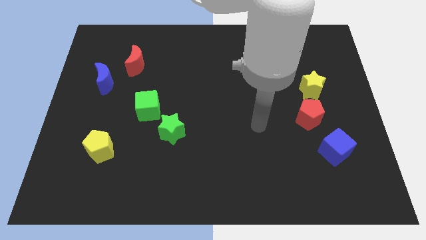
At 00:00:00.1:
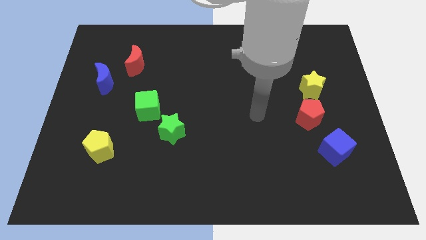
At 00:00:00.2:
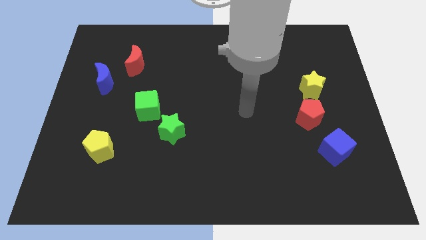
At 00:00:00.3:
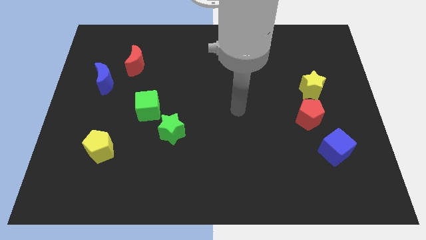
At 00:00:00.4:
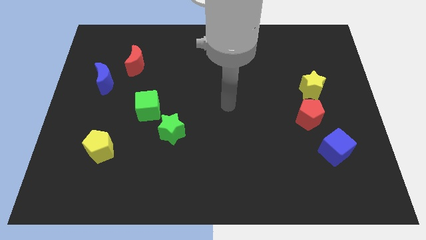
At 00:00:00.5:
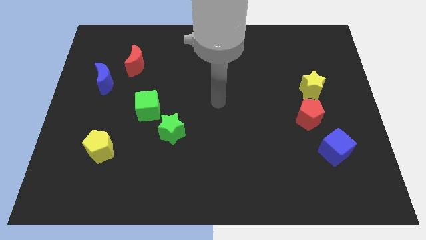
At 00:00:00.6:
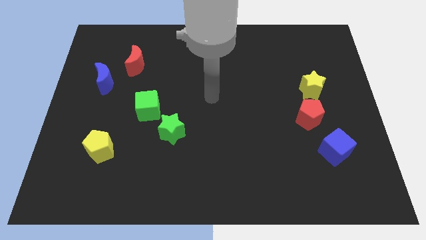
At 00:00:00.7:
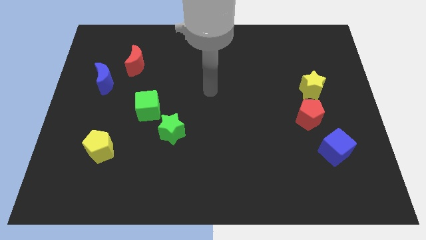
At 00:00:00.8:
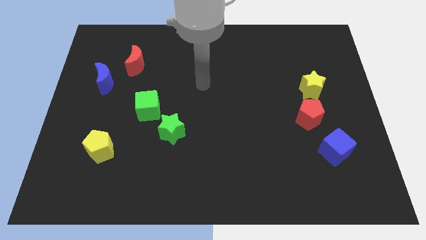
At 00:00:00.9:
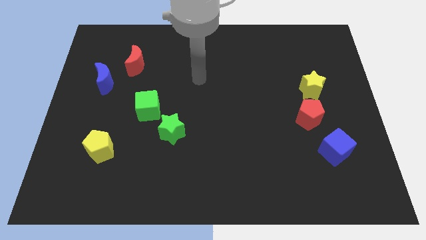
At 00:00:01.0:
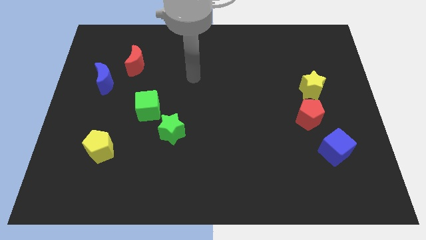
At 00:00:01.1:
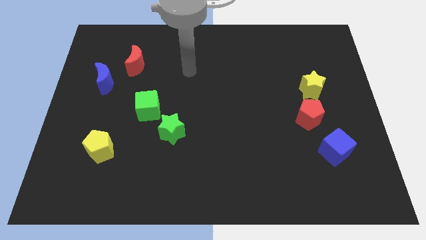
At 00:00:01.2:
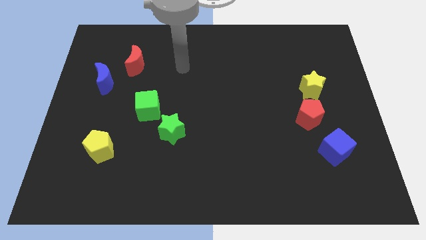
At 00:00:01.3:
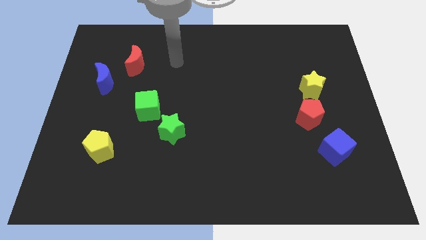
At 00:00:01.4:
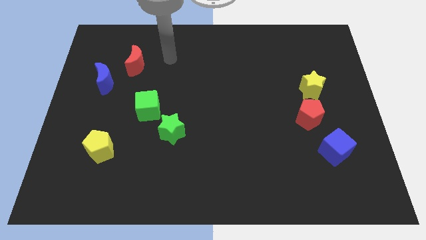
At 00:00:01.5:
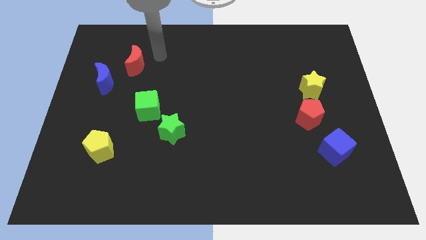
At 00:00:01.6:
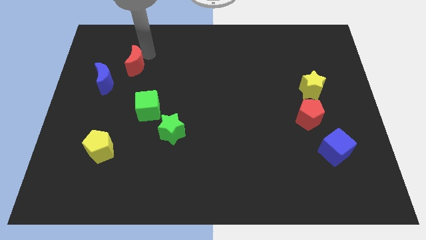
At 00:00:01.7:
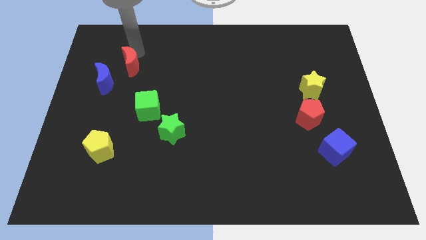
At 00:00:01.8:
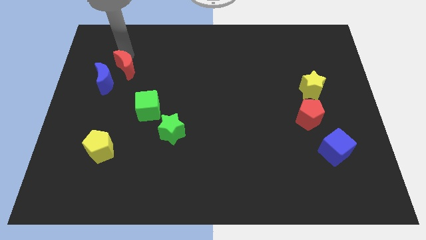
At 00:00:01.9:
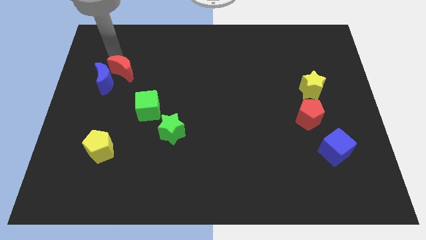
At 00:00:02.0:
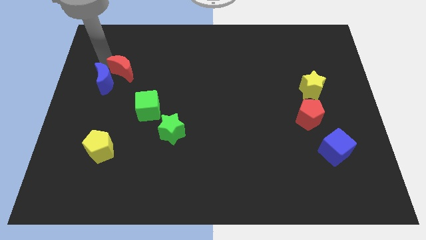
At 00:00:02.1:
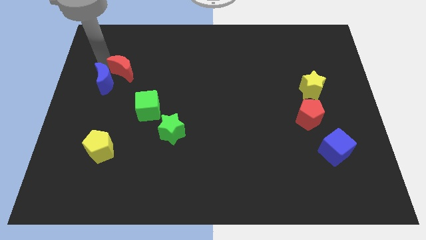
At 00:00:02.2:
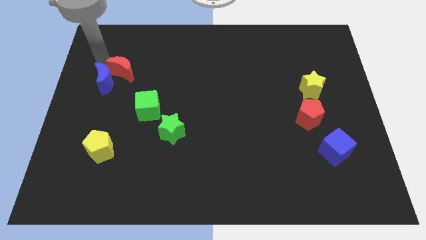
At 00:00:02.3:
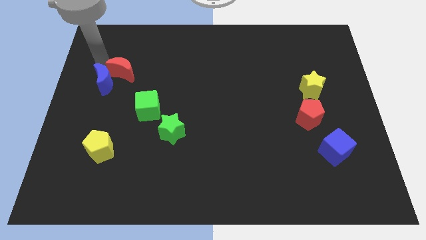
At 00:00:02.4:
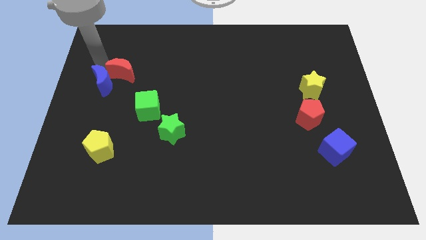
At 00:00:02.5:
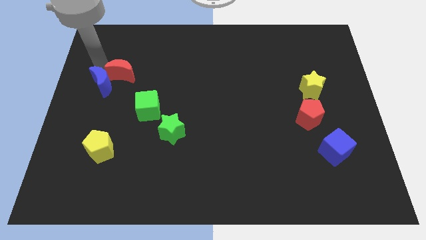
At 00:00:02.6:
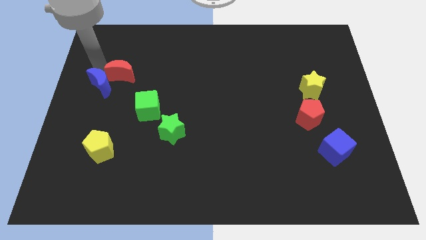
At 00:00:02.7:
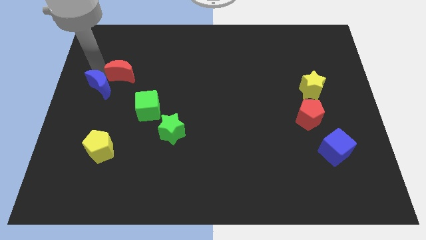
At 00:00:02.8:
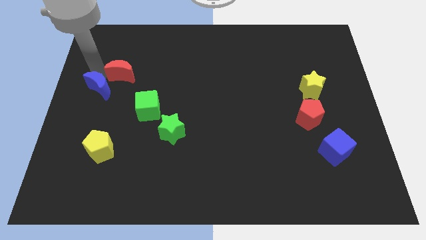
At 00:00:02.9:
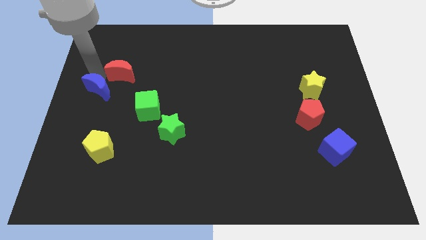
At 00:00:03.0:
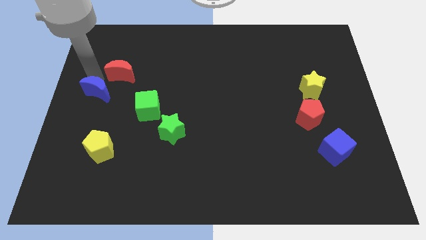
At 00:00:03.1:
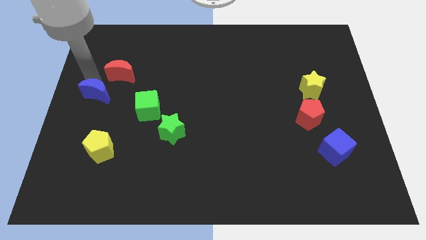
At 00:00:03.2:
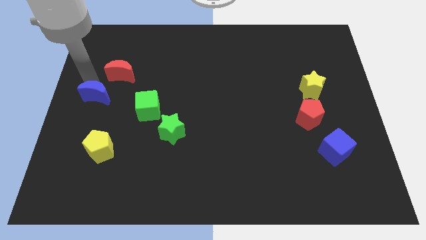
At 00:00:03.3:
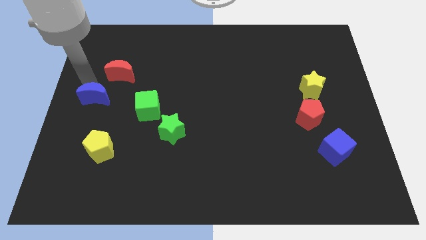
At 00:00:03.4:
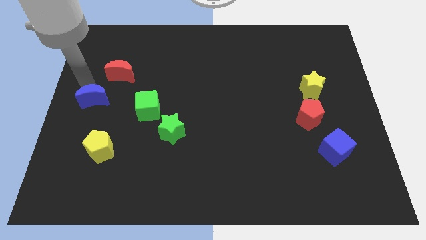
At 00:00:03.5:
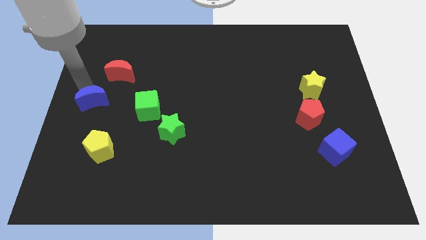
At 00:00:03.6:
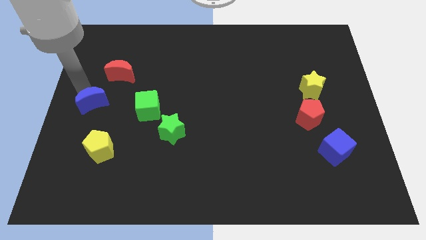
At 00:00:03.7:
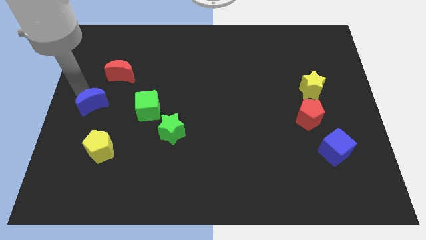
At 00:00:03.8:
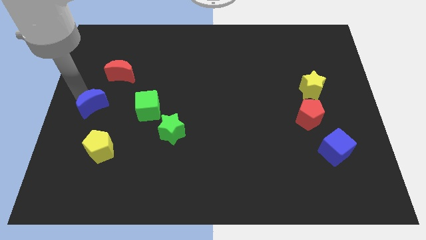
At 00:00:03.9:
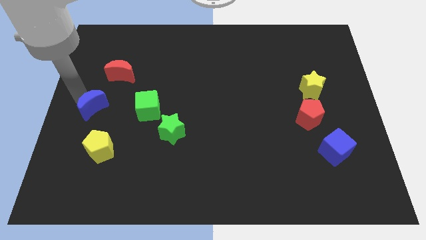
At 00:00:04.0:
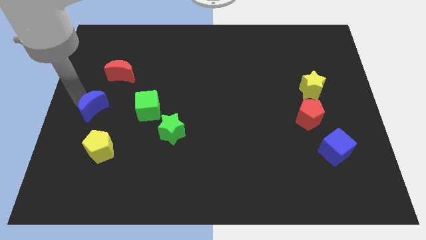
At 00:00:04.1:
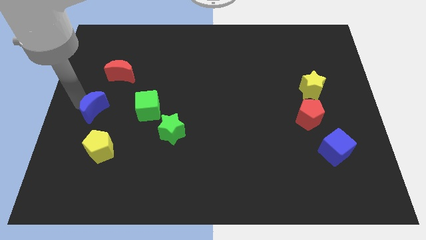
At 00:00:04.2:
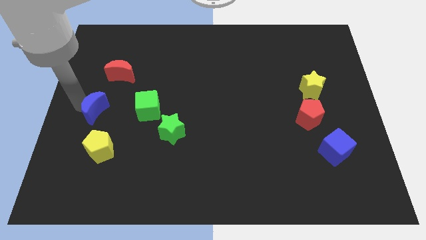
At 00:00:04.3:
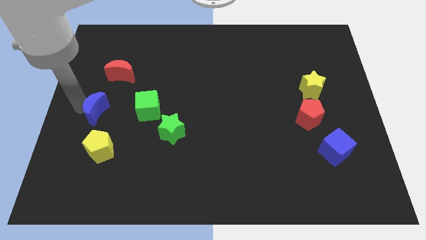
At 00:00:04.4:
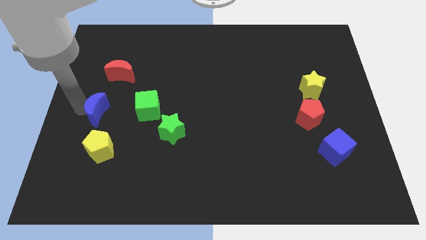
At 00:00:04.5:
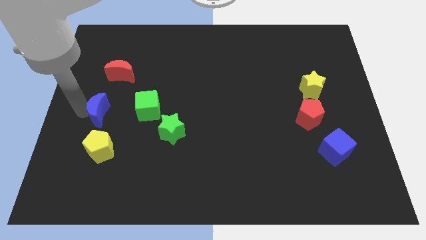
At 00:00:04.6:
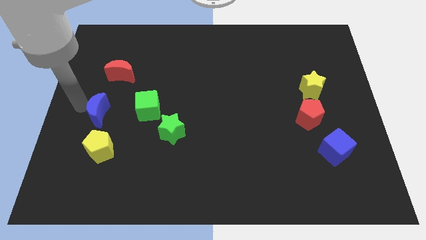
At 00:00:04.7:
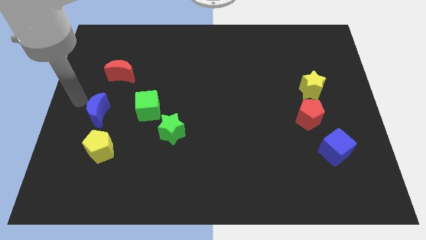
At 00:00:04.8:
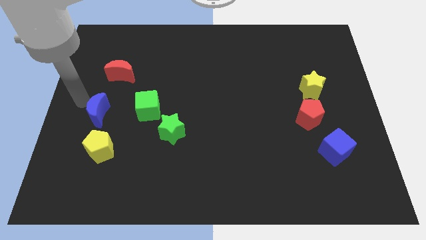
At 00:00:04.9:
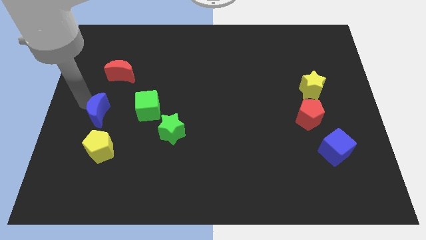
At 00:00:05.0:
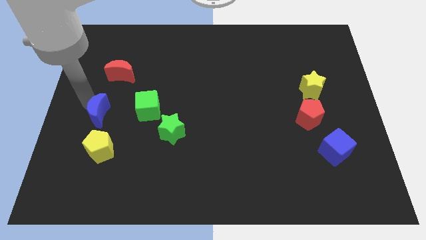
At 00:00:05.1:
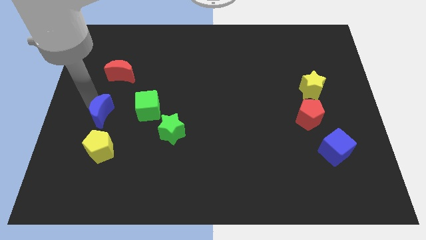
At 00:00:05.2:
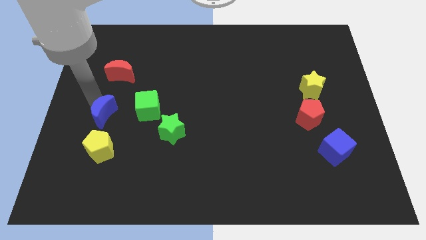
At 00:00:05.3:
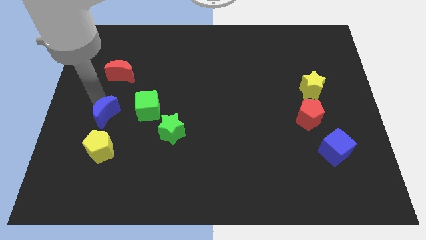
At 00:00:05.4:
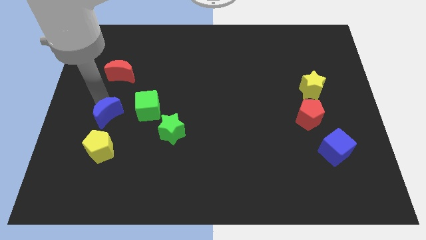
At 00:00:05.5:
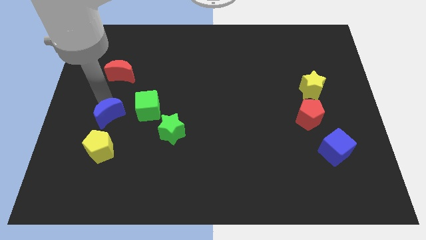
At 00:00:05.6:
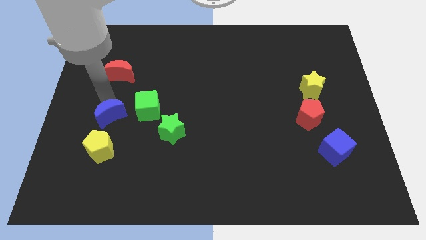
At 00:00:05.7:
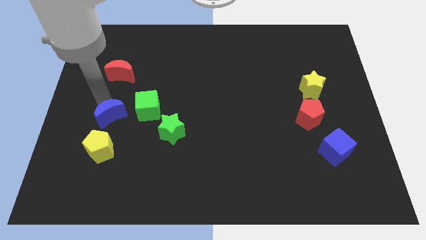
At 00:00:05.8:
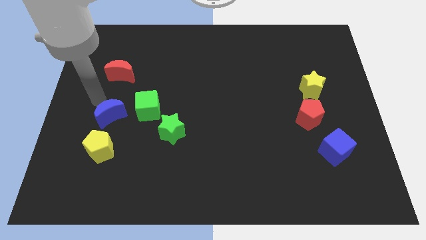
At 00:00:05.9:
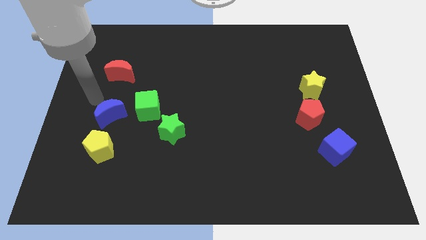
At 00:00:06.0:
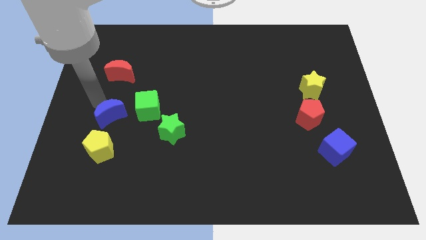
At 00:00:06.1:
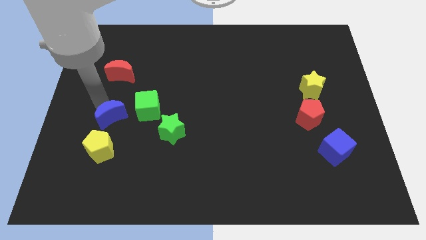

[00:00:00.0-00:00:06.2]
move the blue moon to the left of the green star
